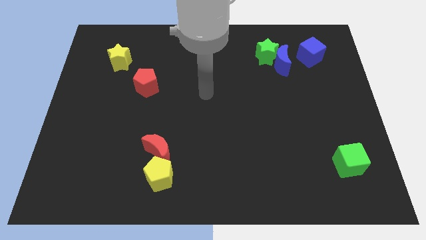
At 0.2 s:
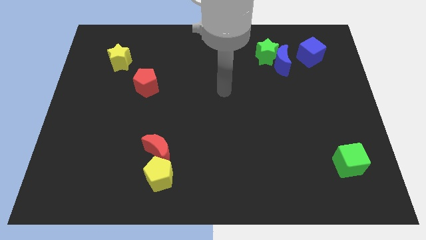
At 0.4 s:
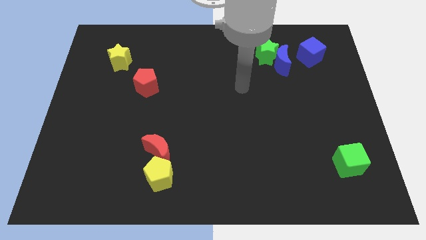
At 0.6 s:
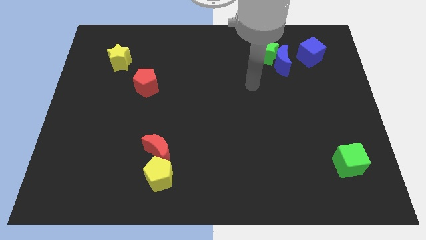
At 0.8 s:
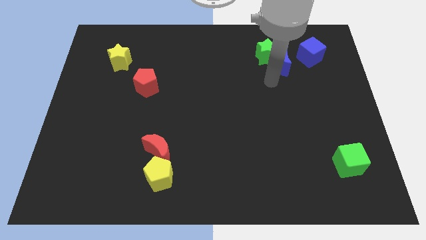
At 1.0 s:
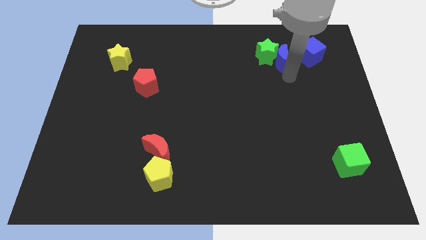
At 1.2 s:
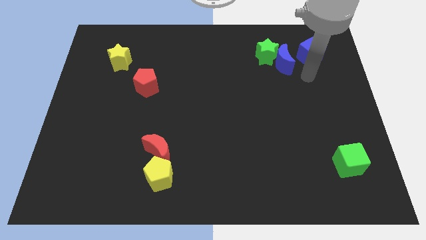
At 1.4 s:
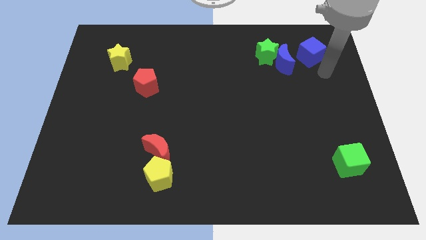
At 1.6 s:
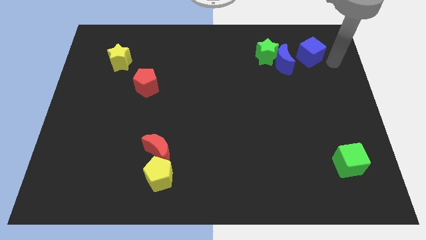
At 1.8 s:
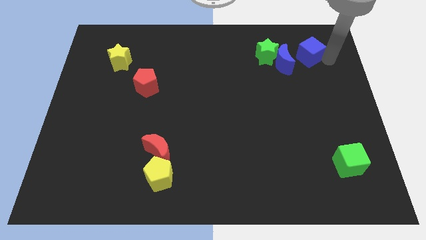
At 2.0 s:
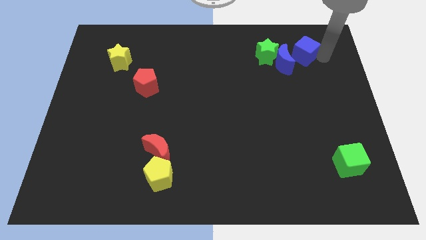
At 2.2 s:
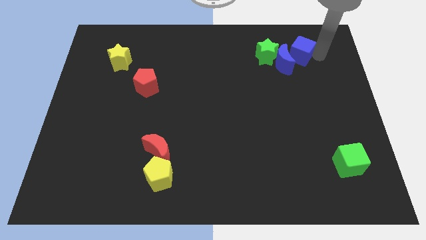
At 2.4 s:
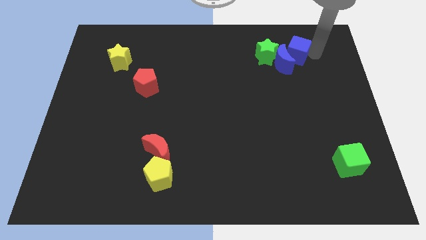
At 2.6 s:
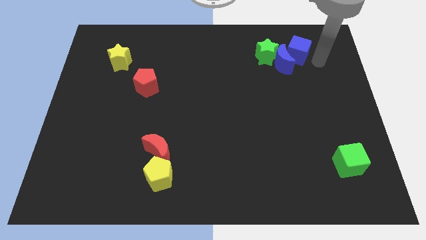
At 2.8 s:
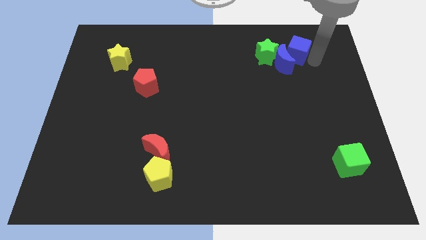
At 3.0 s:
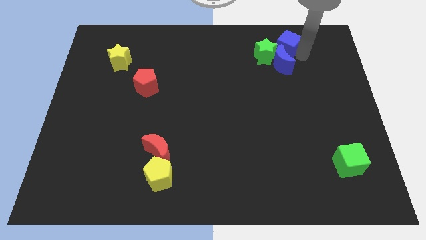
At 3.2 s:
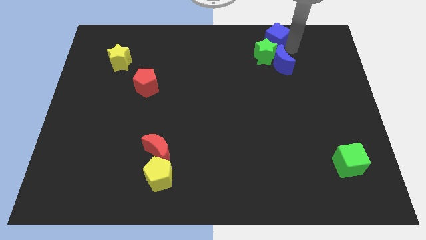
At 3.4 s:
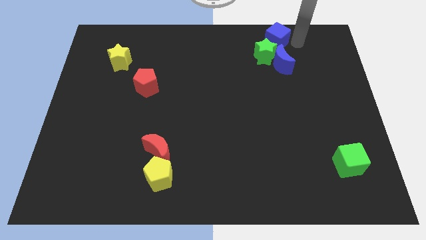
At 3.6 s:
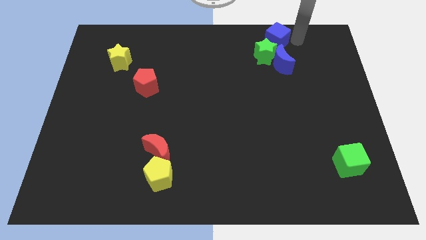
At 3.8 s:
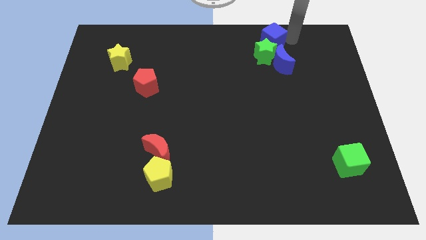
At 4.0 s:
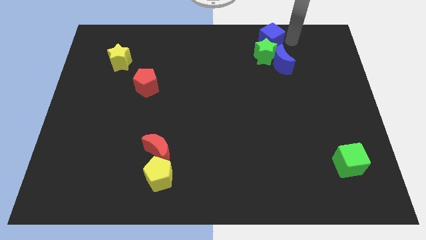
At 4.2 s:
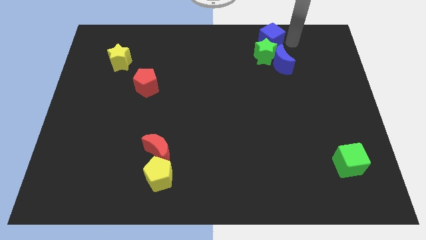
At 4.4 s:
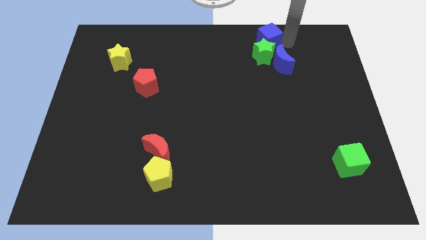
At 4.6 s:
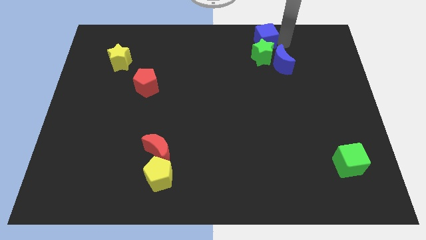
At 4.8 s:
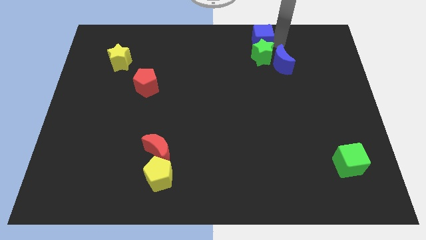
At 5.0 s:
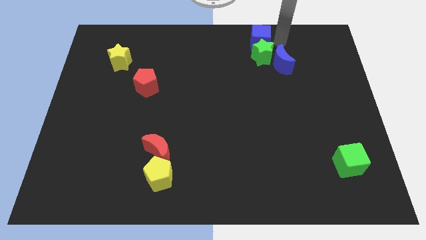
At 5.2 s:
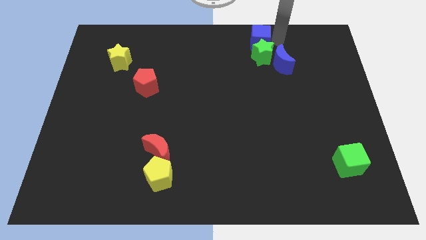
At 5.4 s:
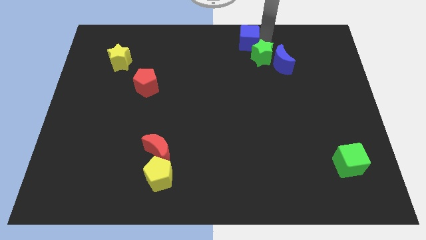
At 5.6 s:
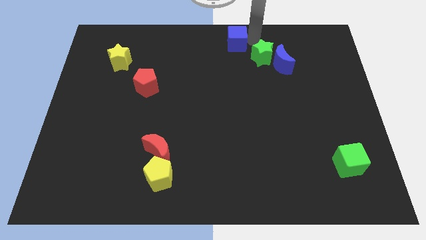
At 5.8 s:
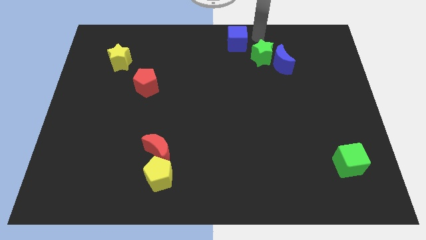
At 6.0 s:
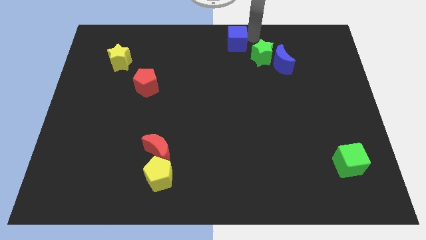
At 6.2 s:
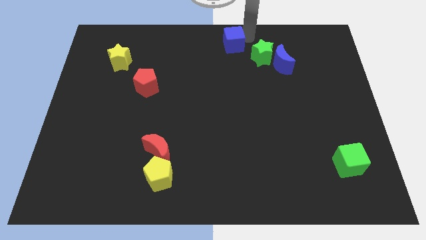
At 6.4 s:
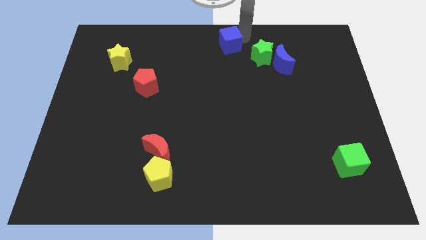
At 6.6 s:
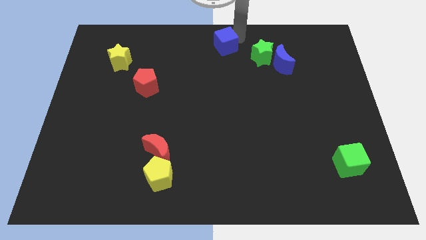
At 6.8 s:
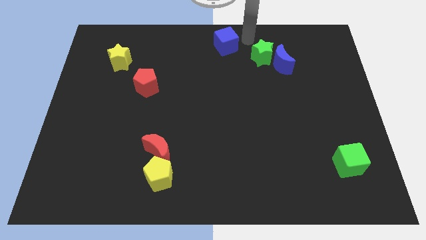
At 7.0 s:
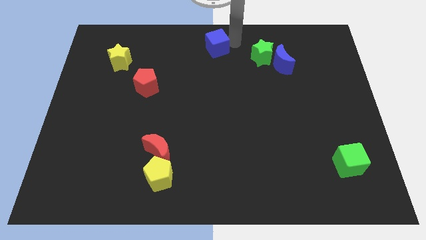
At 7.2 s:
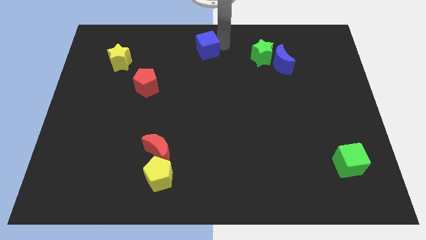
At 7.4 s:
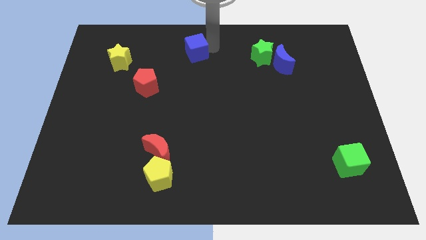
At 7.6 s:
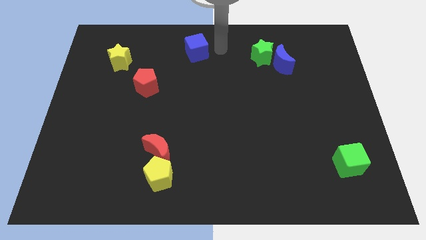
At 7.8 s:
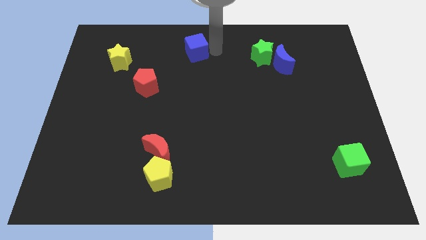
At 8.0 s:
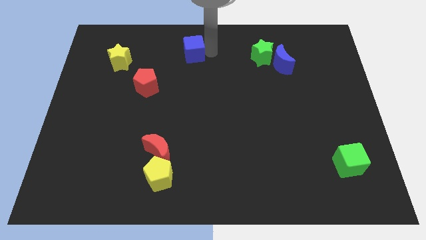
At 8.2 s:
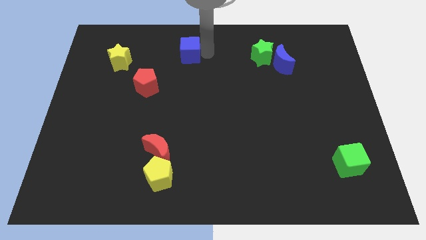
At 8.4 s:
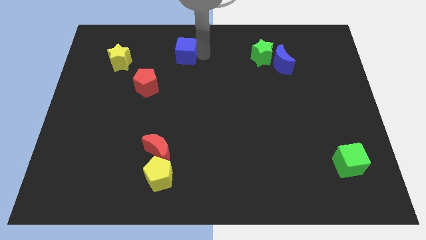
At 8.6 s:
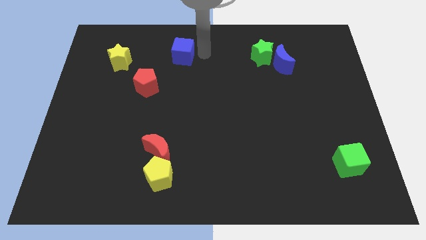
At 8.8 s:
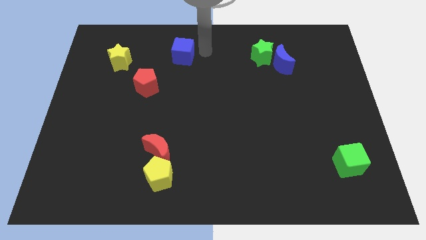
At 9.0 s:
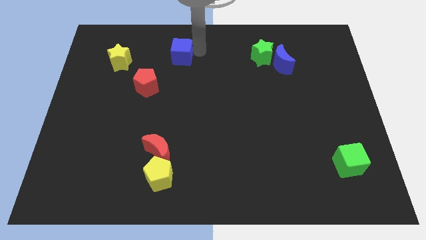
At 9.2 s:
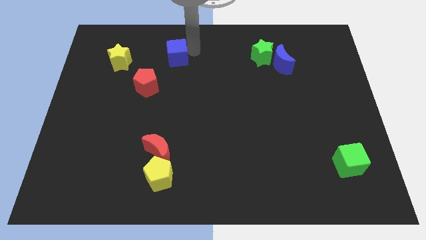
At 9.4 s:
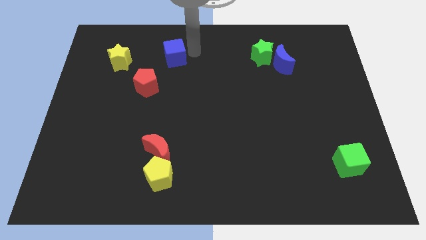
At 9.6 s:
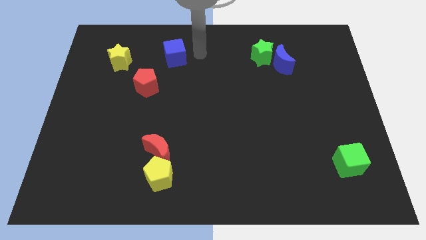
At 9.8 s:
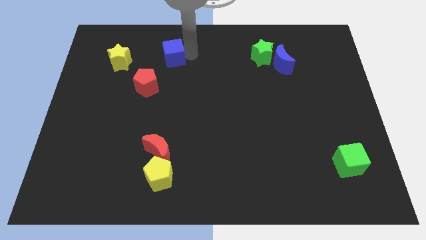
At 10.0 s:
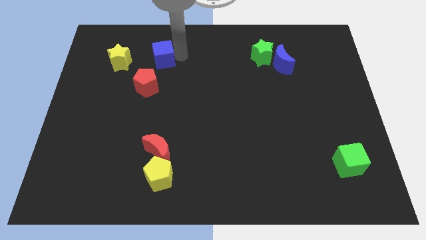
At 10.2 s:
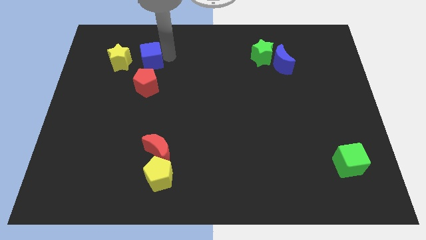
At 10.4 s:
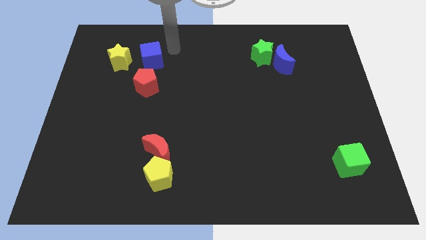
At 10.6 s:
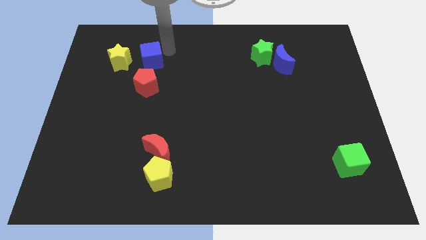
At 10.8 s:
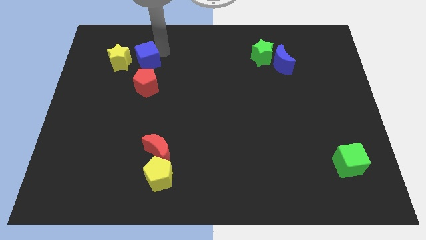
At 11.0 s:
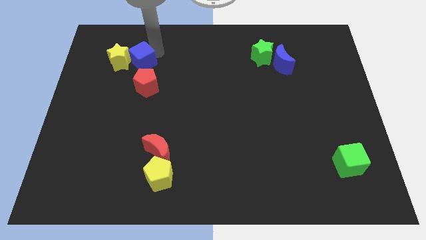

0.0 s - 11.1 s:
put the blue cube diagonally up and to the left of the red pentagon

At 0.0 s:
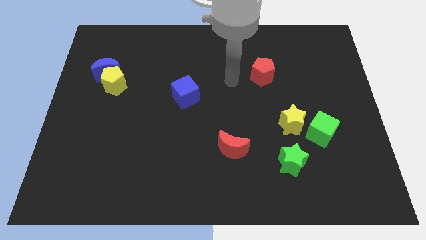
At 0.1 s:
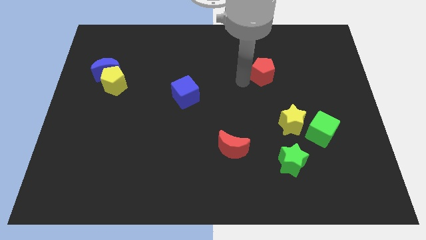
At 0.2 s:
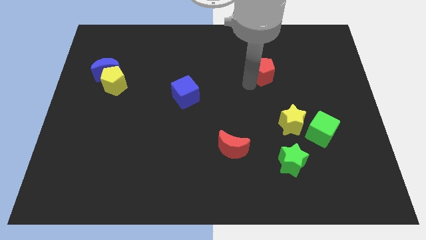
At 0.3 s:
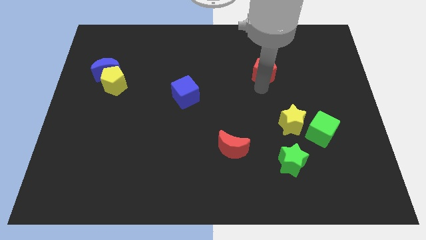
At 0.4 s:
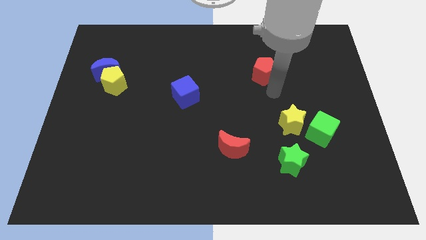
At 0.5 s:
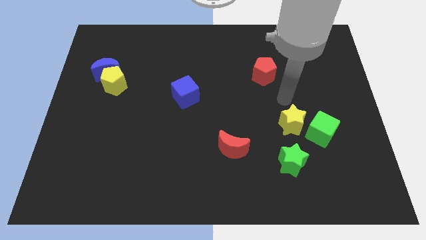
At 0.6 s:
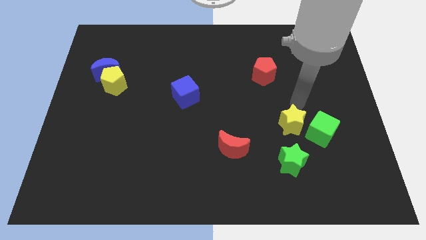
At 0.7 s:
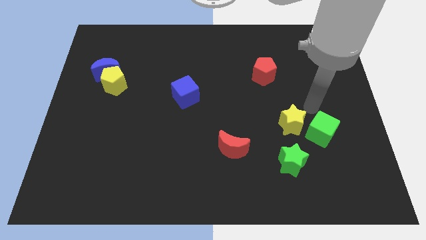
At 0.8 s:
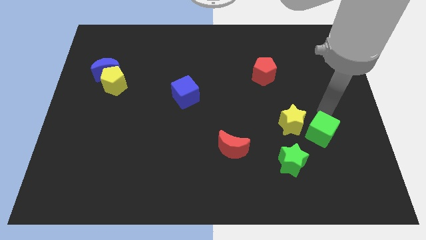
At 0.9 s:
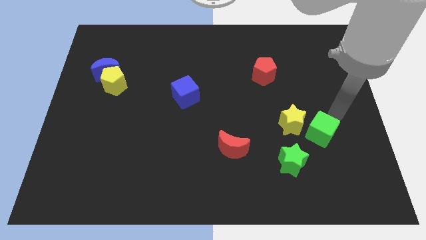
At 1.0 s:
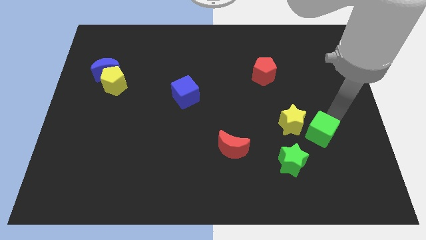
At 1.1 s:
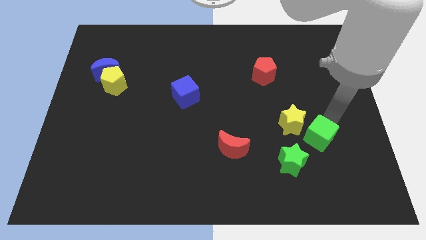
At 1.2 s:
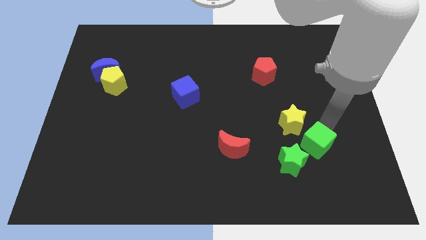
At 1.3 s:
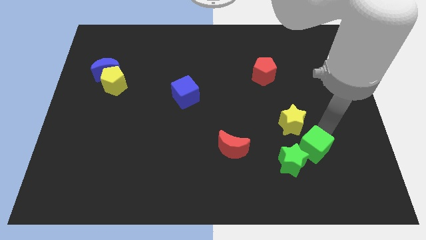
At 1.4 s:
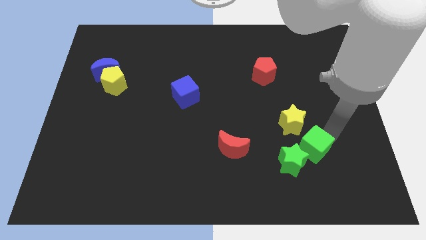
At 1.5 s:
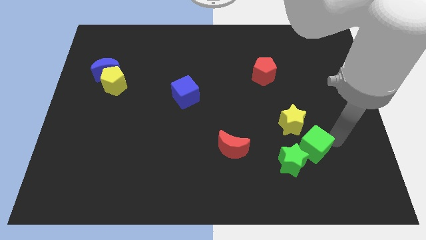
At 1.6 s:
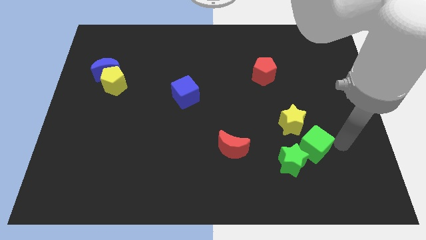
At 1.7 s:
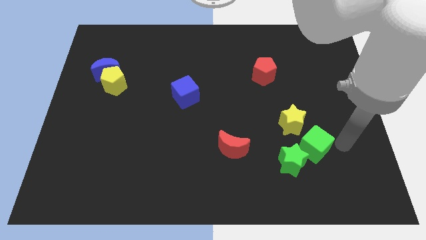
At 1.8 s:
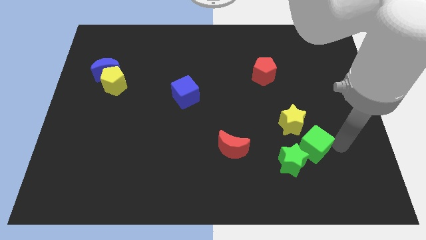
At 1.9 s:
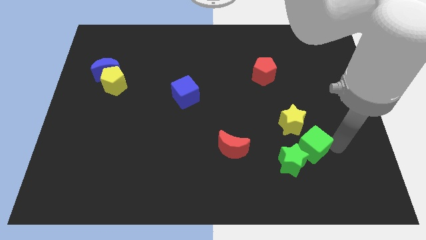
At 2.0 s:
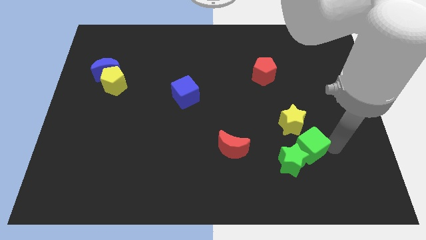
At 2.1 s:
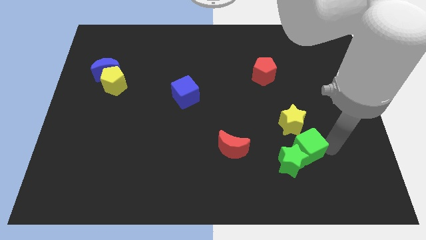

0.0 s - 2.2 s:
put the green cube to the right side of the red moon
